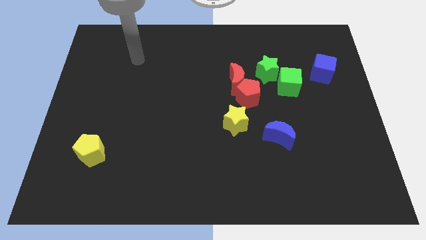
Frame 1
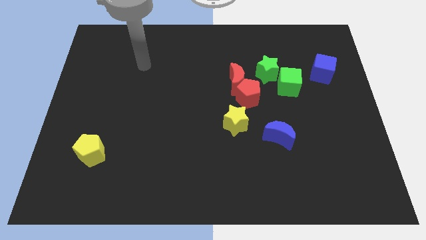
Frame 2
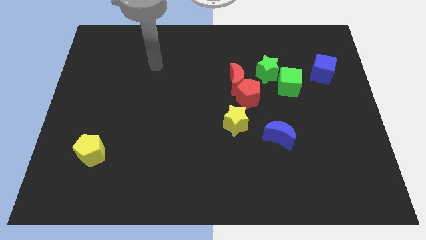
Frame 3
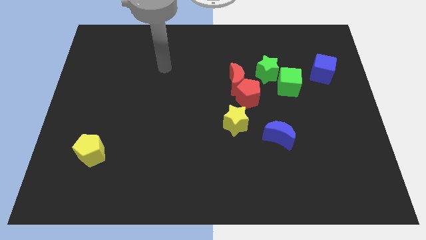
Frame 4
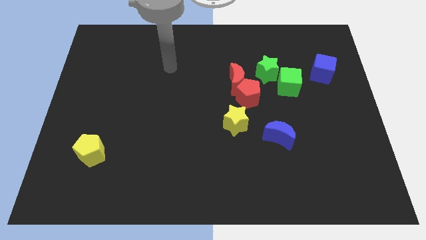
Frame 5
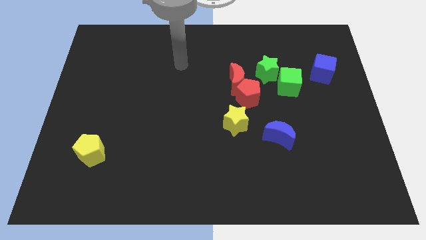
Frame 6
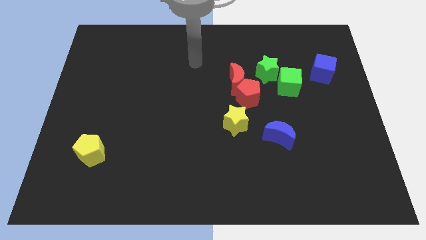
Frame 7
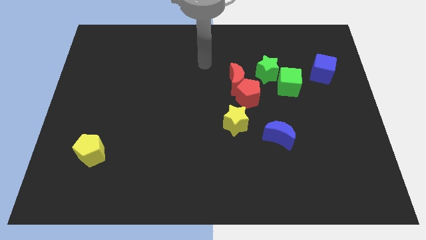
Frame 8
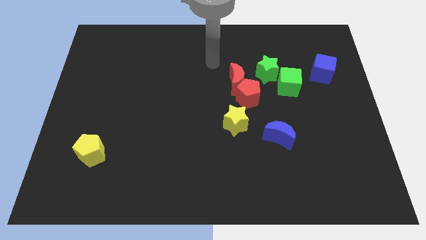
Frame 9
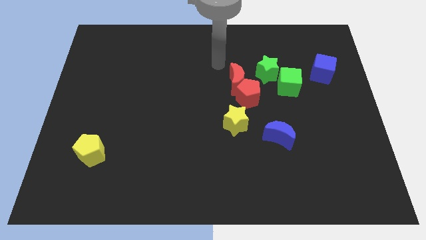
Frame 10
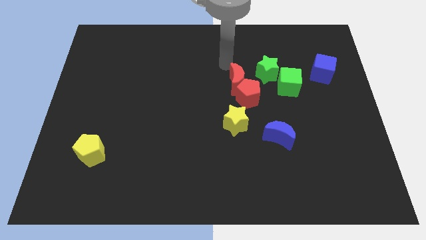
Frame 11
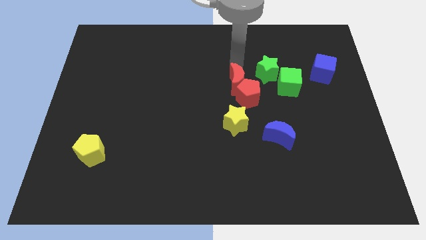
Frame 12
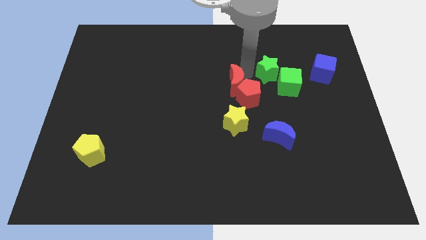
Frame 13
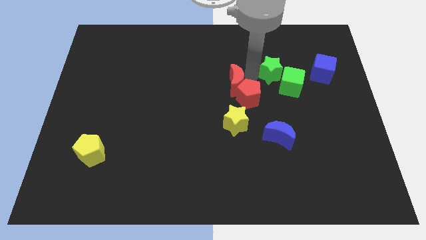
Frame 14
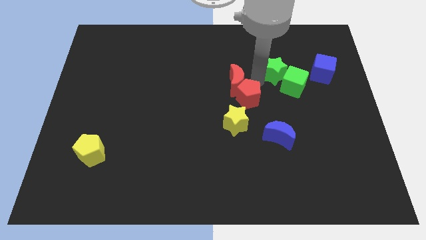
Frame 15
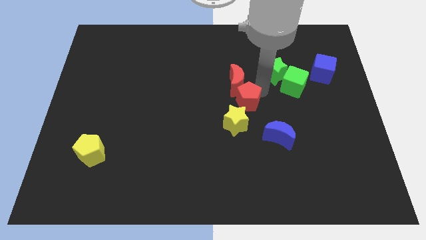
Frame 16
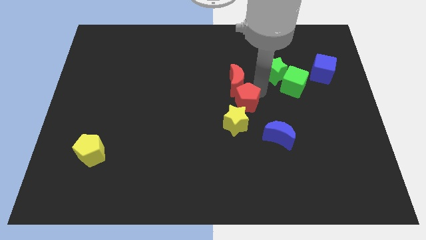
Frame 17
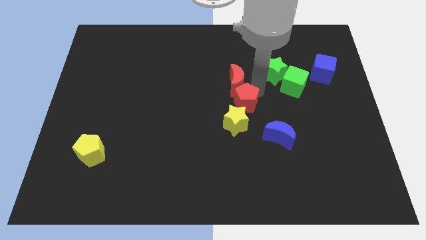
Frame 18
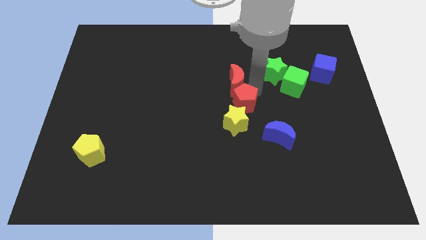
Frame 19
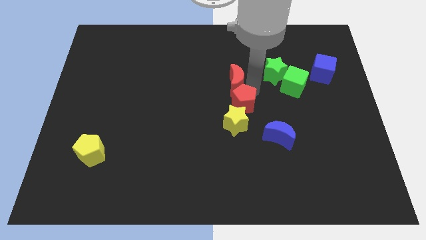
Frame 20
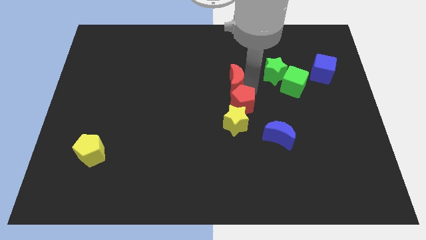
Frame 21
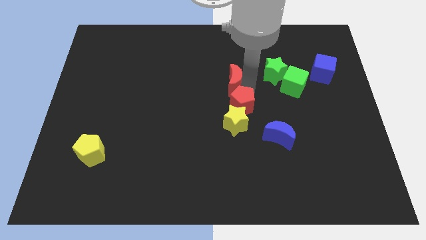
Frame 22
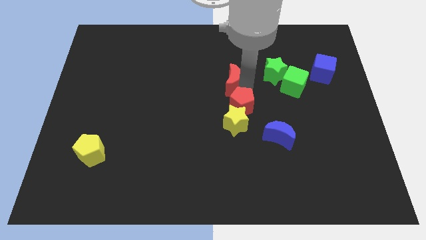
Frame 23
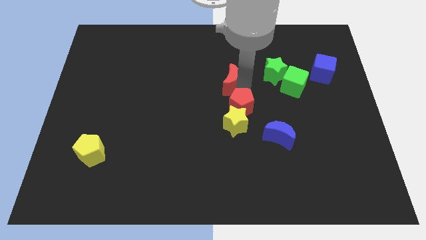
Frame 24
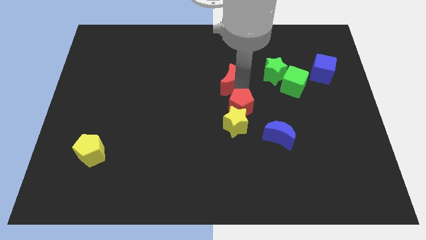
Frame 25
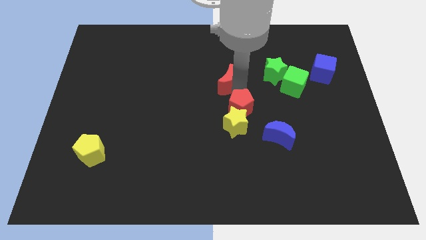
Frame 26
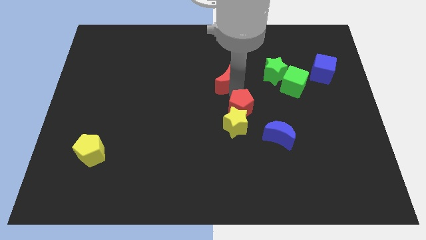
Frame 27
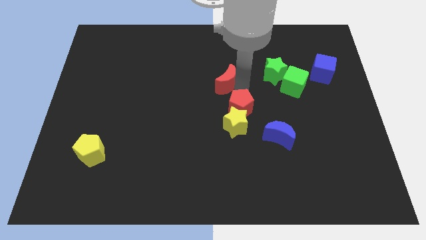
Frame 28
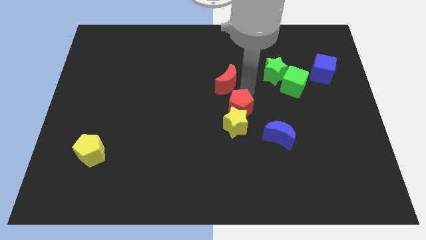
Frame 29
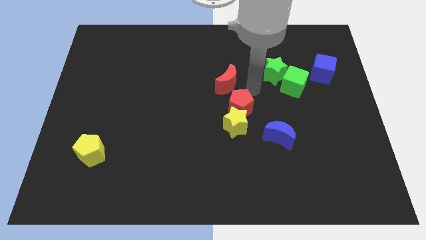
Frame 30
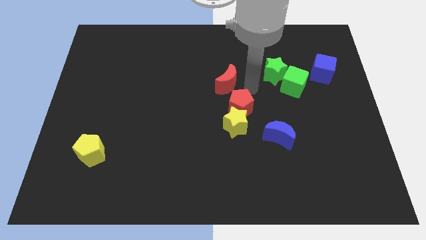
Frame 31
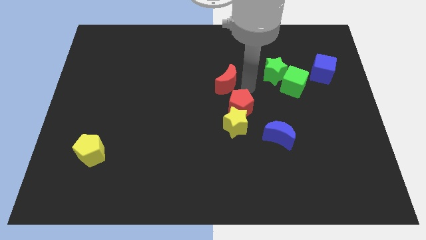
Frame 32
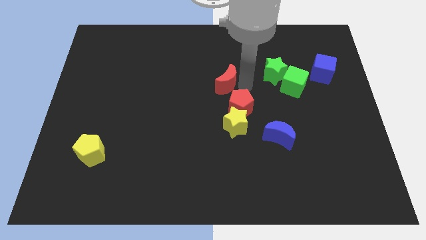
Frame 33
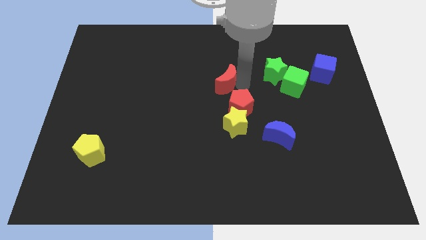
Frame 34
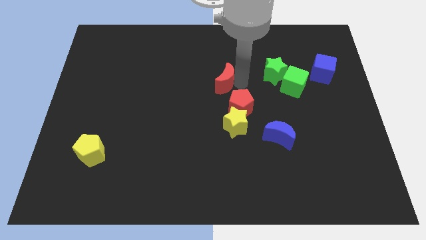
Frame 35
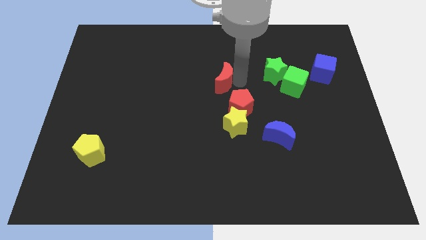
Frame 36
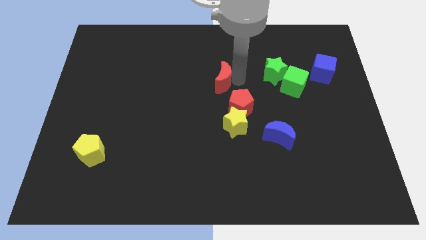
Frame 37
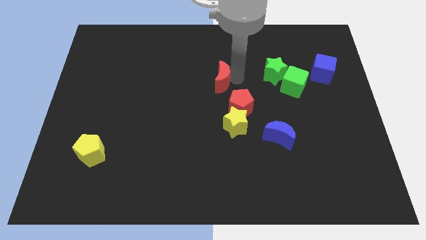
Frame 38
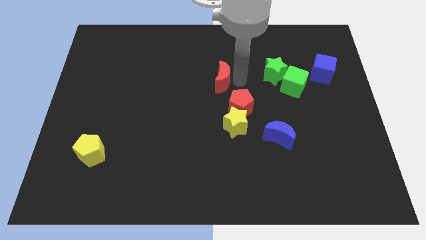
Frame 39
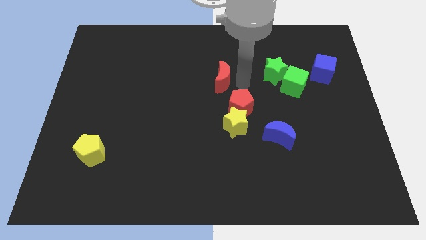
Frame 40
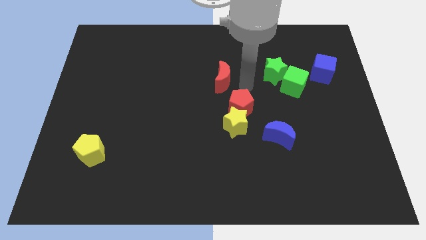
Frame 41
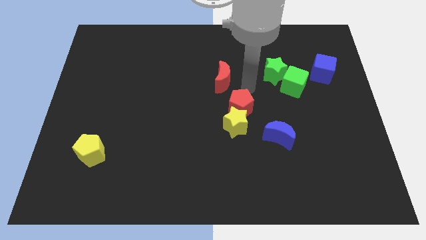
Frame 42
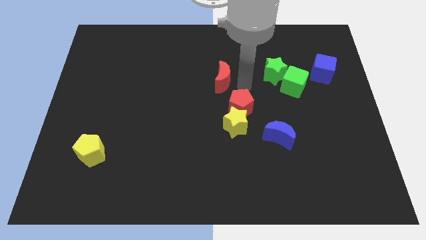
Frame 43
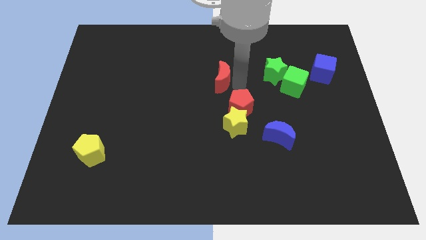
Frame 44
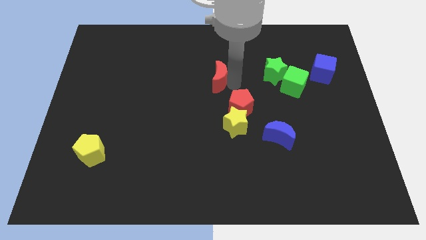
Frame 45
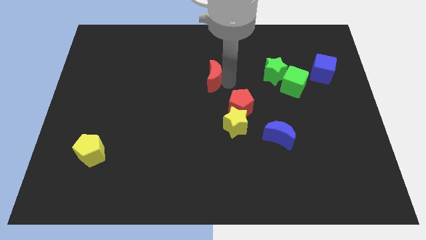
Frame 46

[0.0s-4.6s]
separate the red moon from the red pentagon and green star

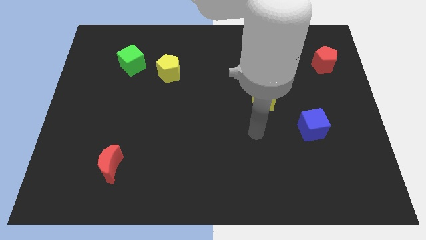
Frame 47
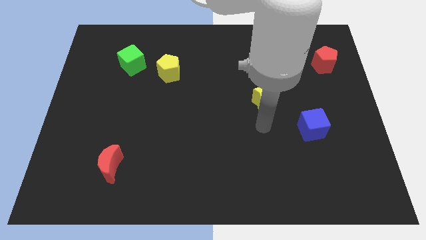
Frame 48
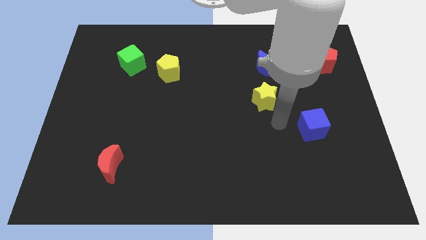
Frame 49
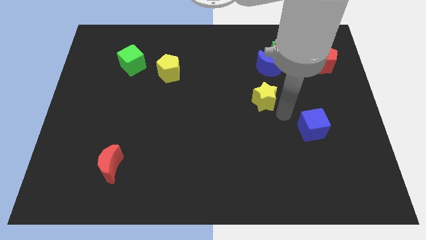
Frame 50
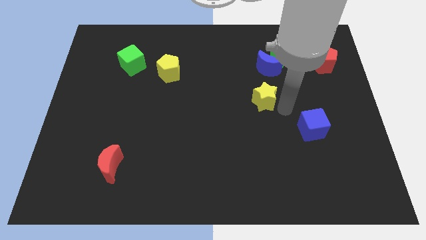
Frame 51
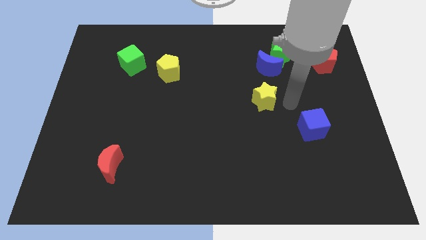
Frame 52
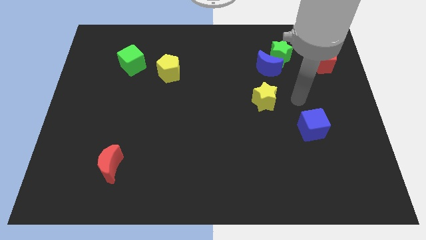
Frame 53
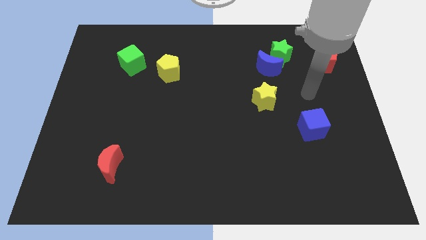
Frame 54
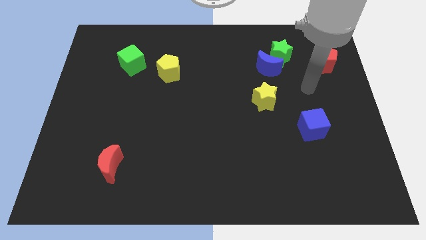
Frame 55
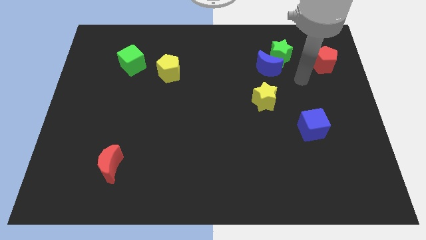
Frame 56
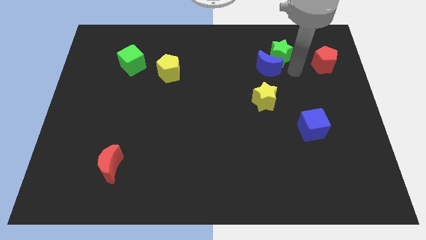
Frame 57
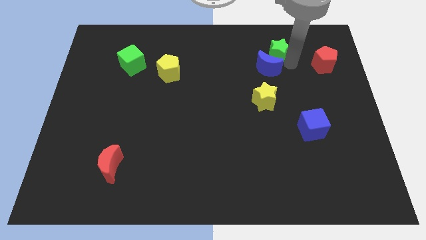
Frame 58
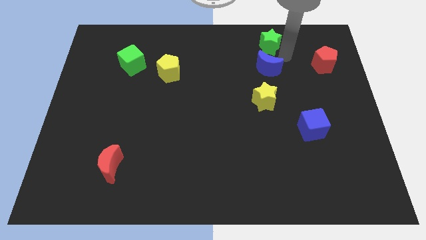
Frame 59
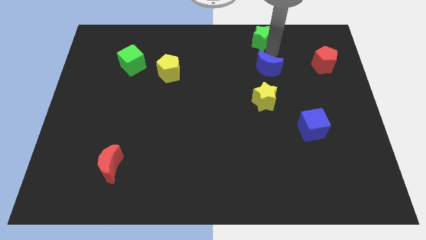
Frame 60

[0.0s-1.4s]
separate the blue moon from the green star

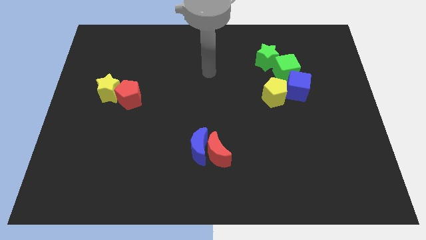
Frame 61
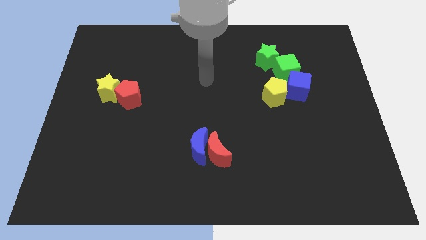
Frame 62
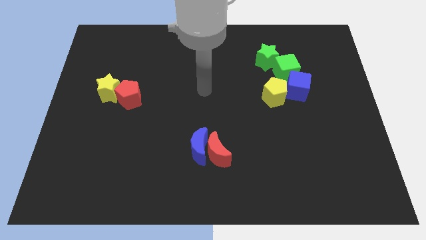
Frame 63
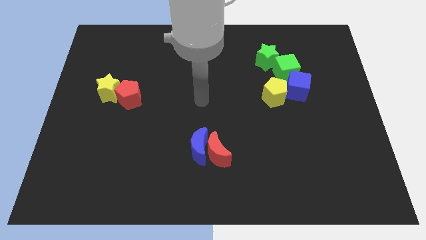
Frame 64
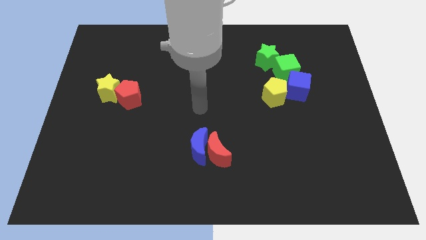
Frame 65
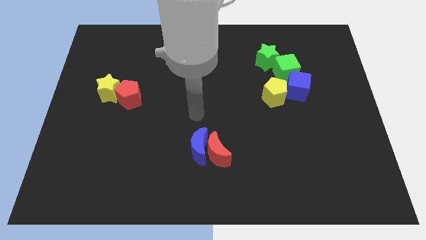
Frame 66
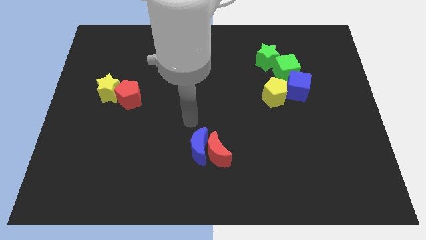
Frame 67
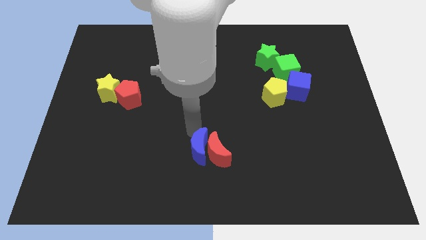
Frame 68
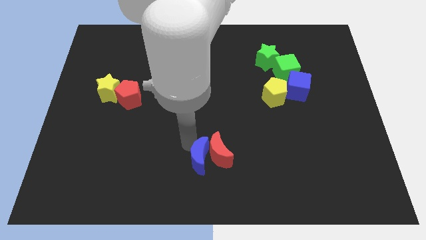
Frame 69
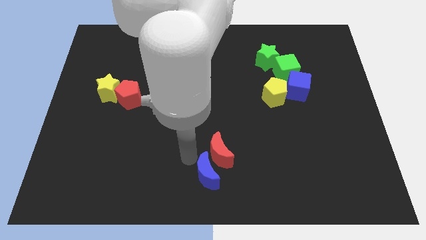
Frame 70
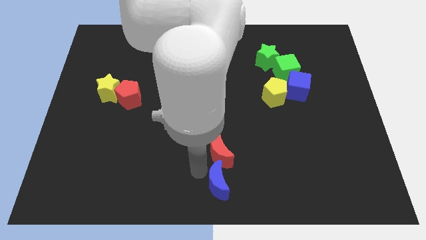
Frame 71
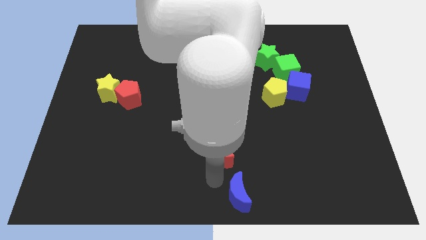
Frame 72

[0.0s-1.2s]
pull the red moon apart from the blue moon

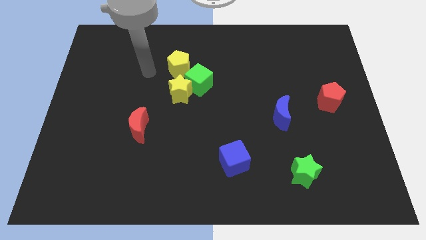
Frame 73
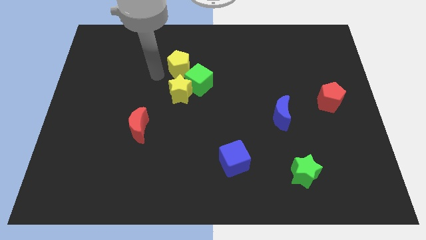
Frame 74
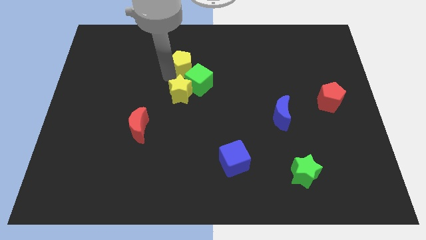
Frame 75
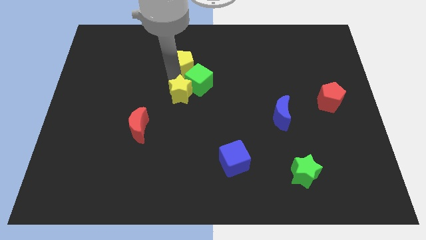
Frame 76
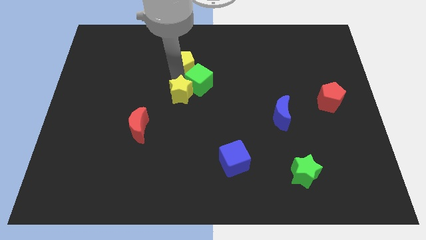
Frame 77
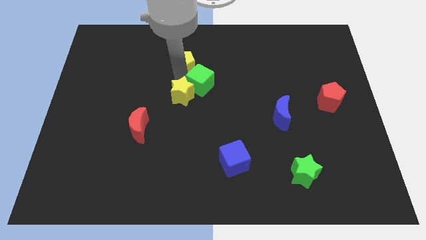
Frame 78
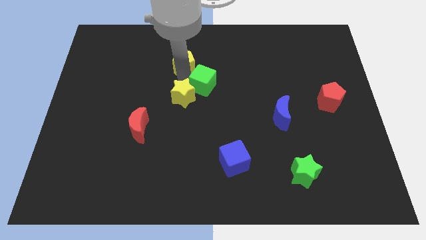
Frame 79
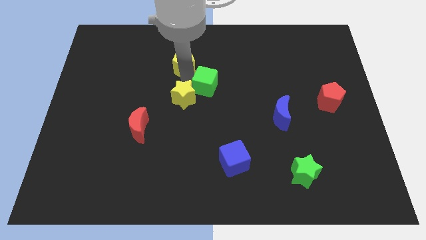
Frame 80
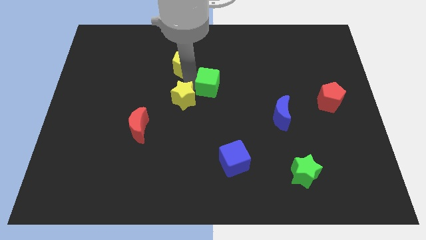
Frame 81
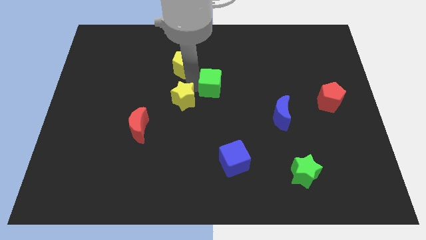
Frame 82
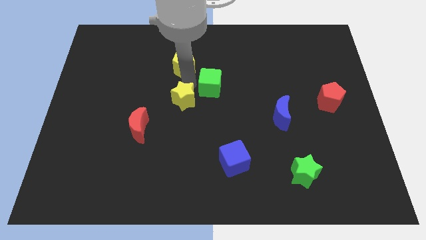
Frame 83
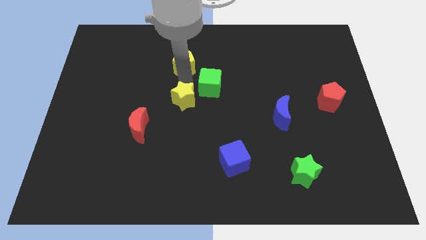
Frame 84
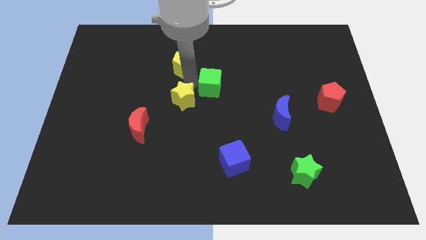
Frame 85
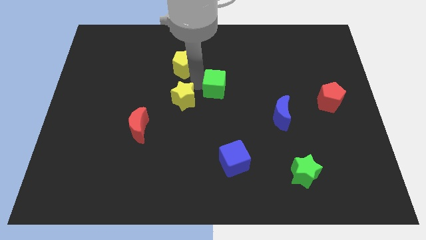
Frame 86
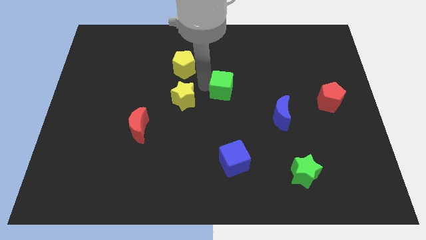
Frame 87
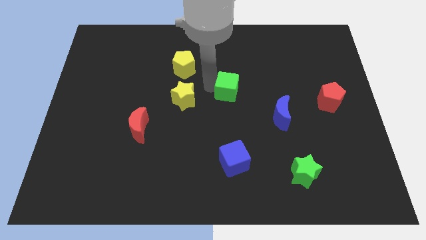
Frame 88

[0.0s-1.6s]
pull the green cube apart from the yellow star and yellow pentagon

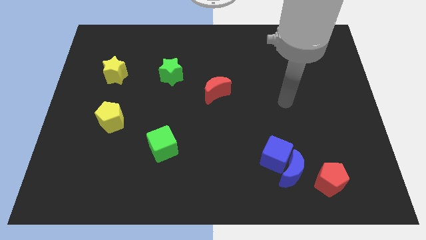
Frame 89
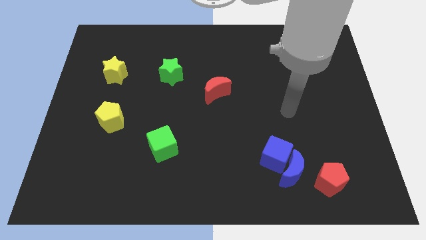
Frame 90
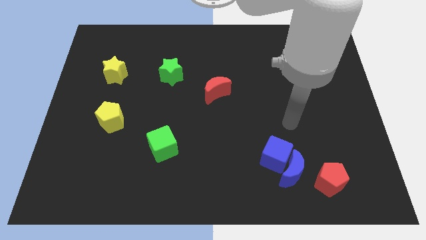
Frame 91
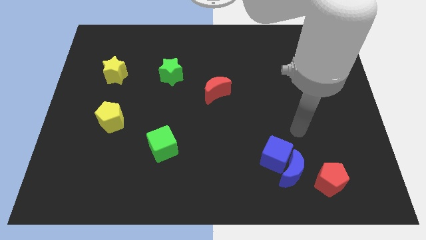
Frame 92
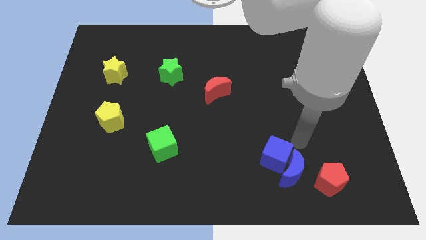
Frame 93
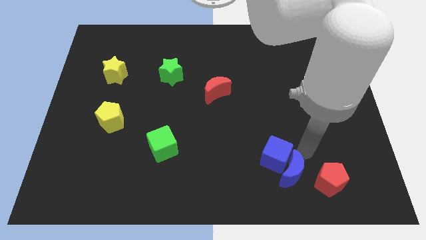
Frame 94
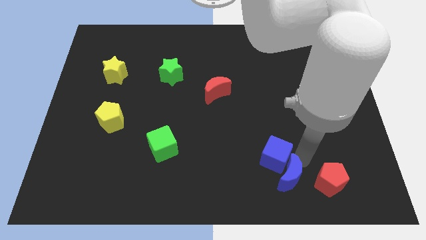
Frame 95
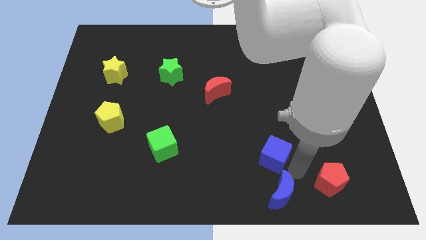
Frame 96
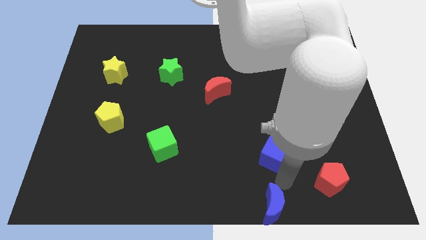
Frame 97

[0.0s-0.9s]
separate the blue cube from the blue moon
